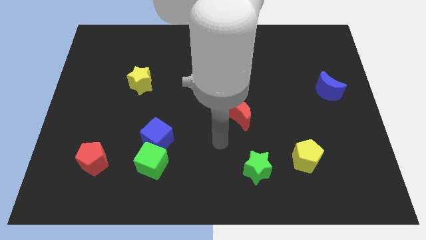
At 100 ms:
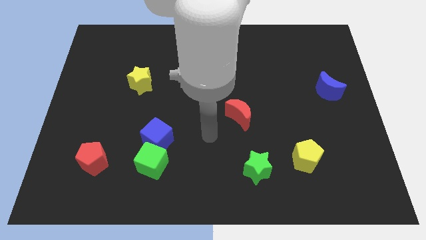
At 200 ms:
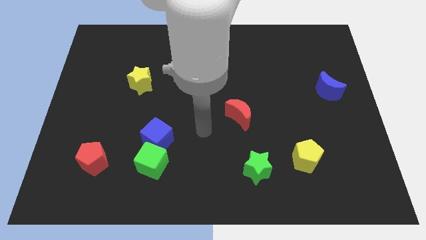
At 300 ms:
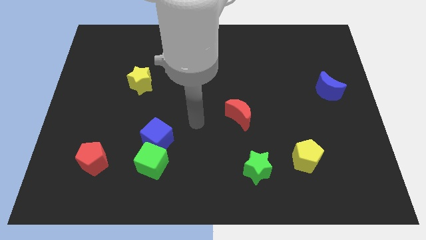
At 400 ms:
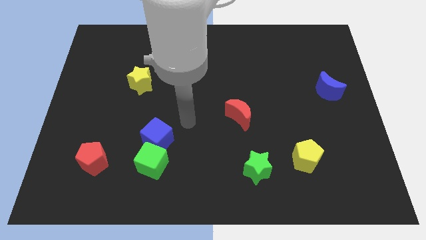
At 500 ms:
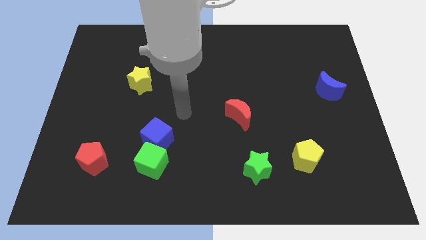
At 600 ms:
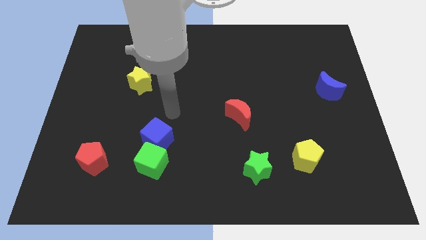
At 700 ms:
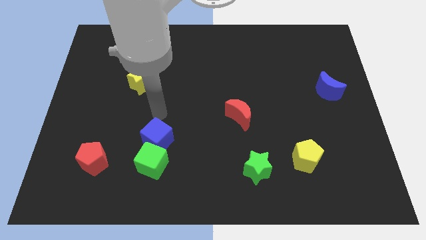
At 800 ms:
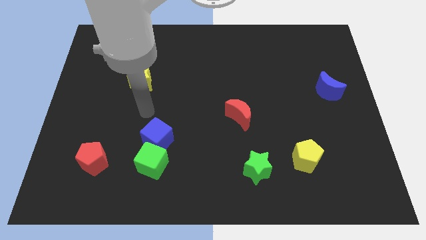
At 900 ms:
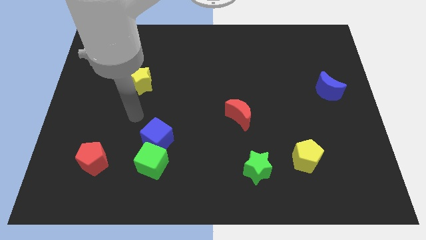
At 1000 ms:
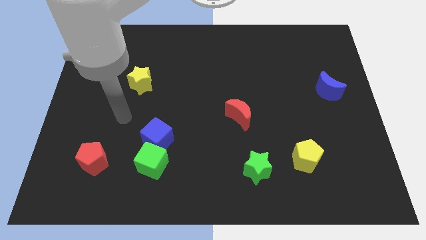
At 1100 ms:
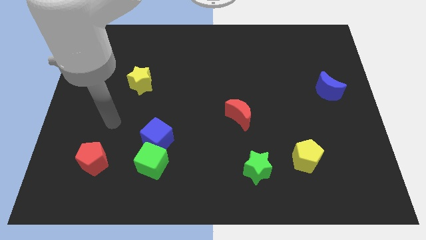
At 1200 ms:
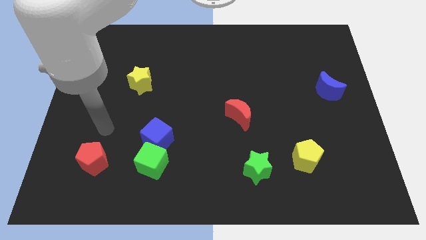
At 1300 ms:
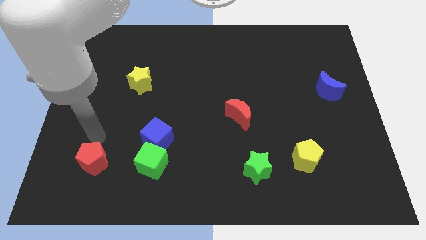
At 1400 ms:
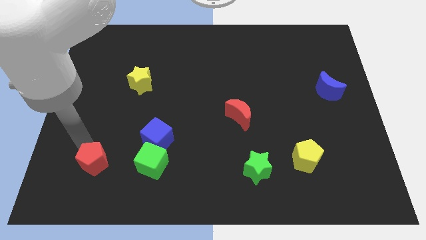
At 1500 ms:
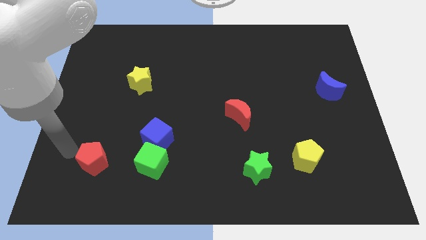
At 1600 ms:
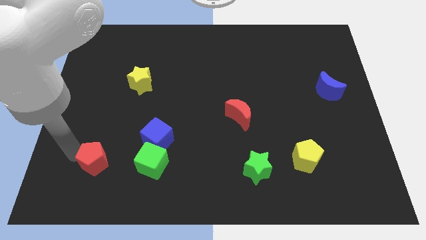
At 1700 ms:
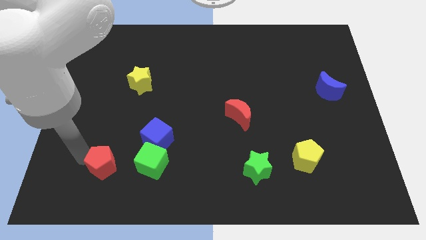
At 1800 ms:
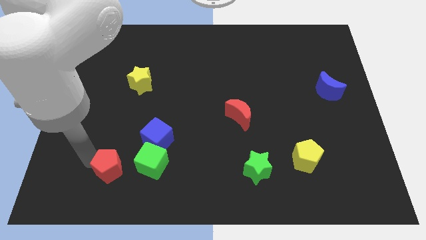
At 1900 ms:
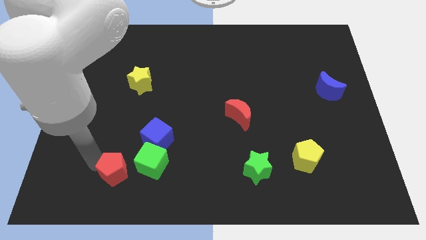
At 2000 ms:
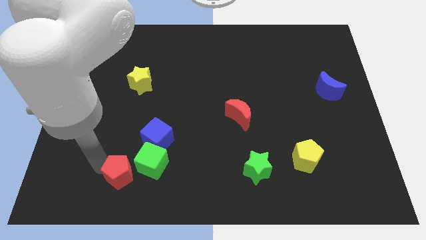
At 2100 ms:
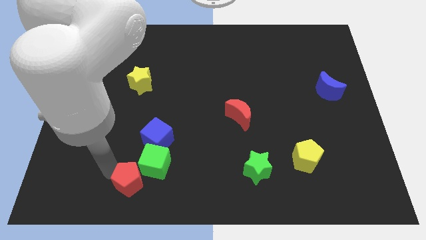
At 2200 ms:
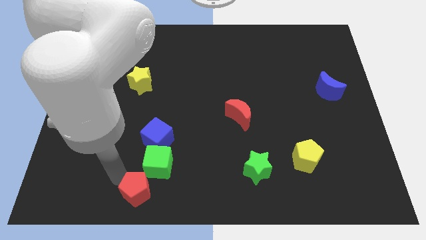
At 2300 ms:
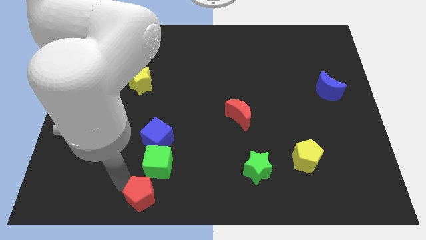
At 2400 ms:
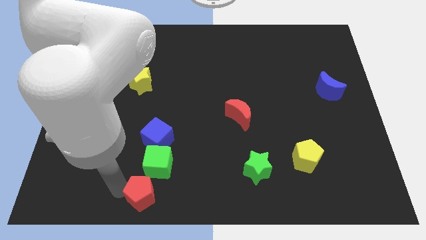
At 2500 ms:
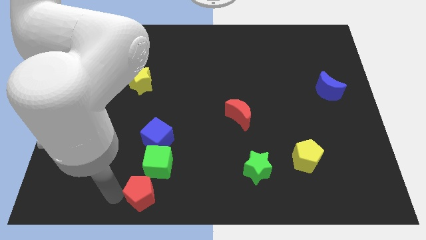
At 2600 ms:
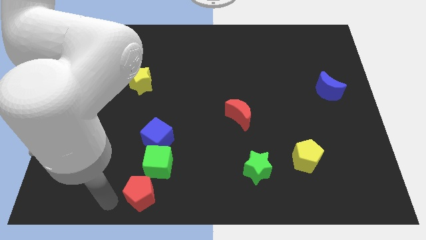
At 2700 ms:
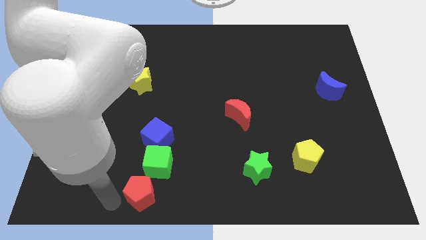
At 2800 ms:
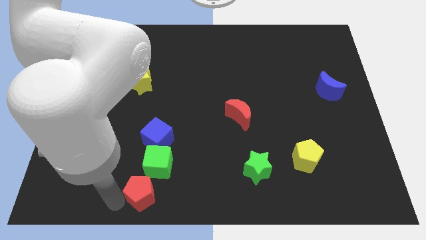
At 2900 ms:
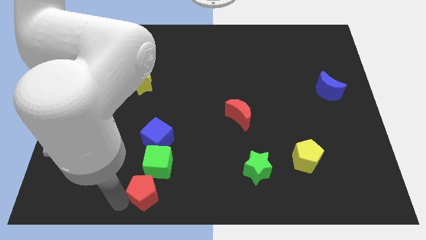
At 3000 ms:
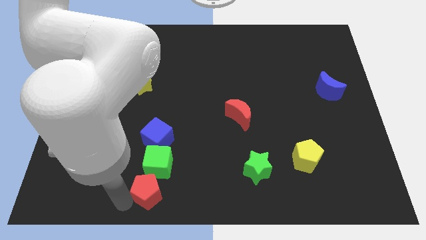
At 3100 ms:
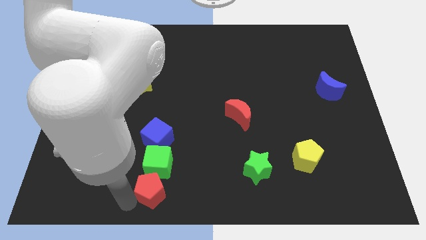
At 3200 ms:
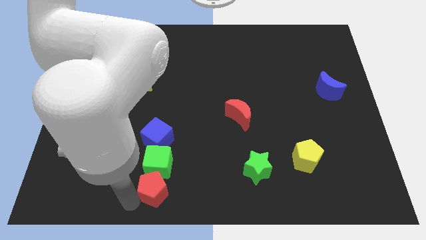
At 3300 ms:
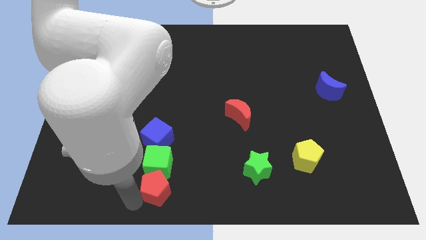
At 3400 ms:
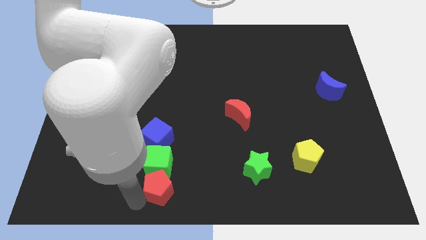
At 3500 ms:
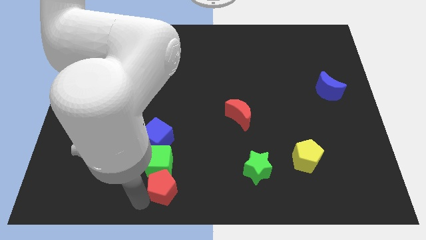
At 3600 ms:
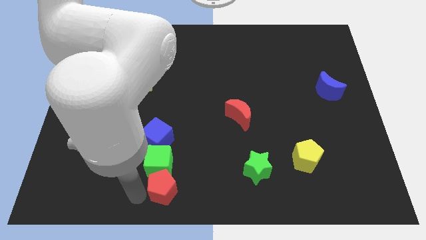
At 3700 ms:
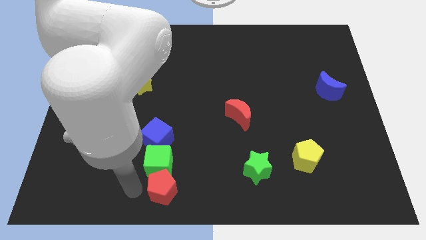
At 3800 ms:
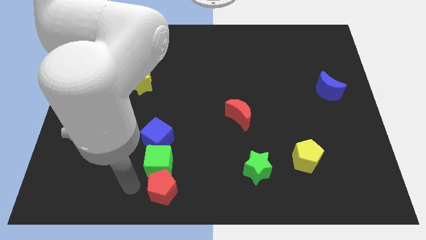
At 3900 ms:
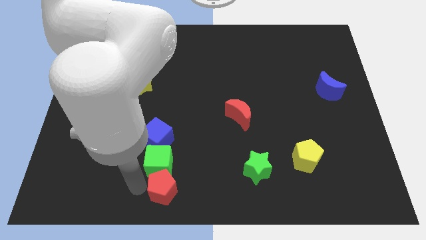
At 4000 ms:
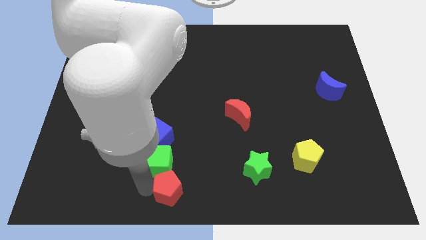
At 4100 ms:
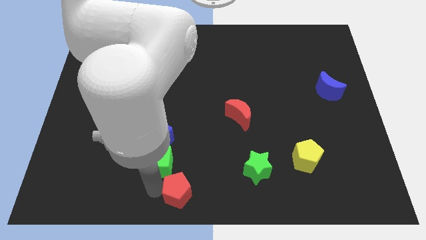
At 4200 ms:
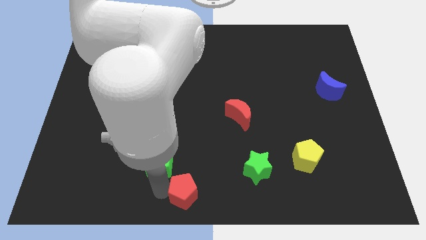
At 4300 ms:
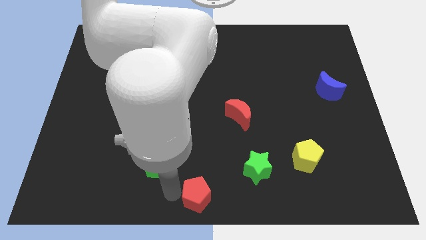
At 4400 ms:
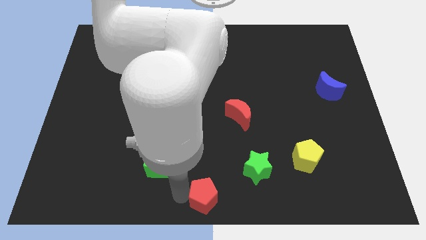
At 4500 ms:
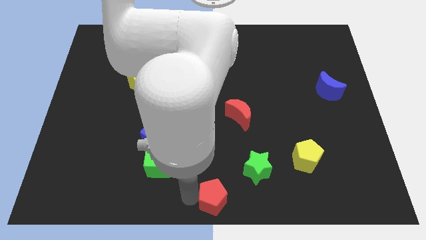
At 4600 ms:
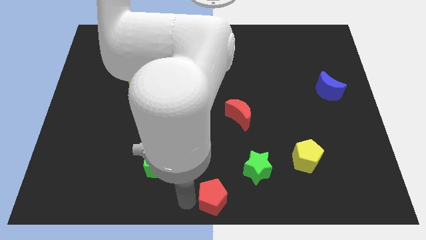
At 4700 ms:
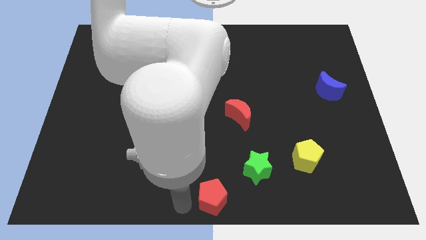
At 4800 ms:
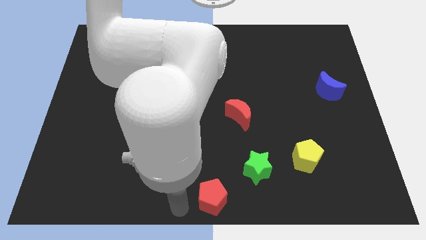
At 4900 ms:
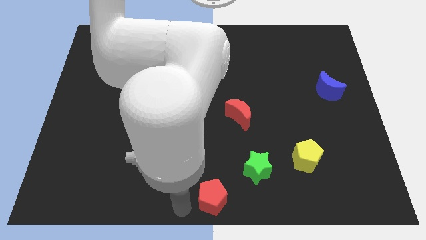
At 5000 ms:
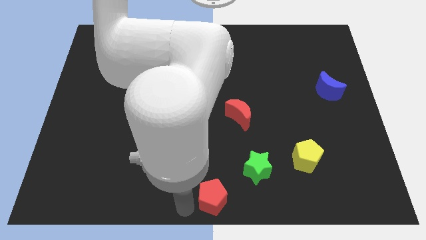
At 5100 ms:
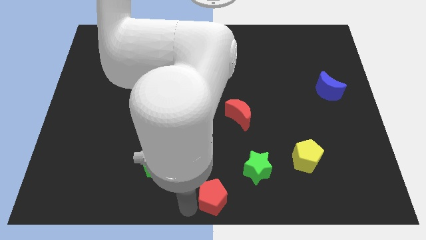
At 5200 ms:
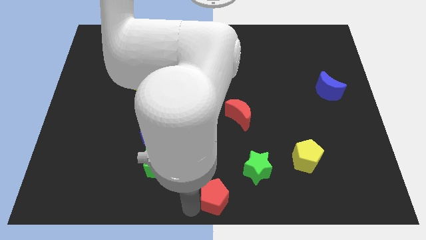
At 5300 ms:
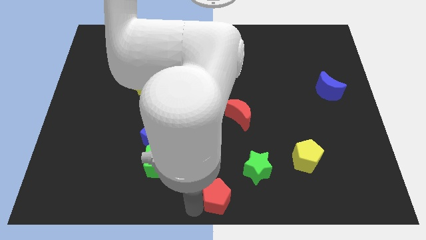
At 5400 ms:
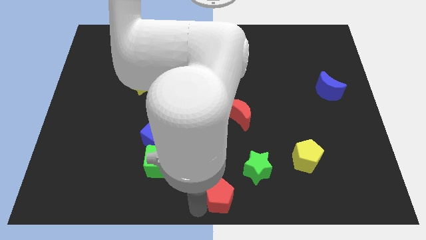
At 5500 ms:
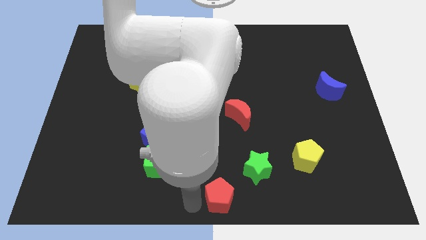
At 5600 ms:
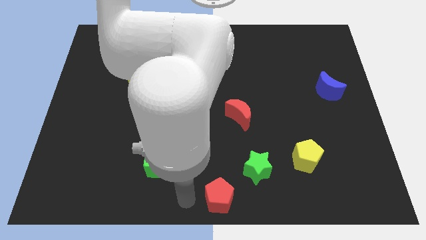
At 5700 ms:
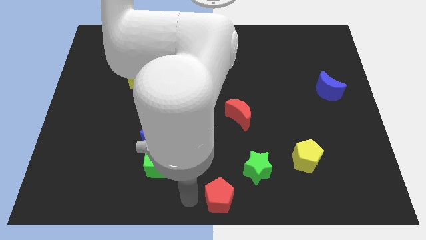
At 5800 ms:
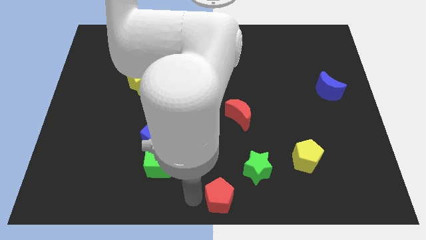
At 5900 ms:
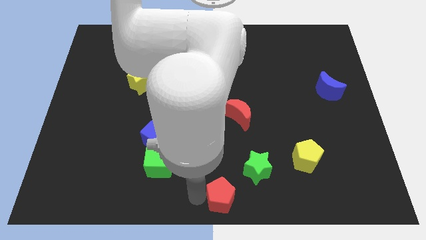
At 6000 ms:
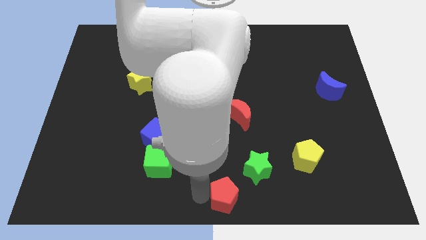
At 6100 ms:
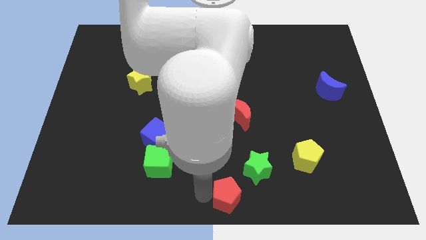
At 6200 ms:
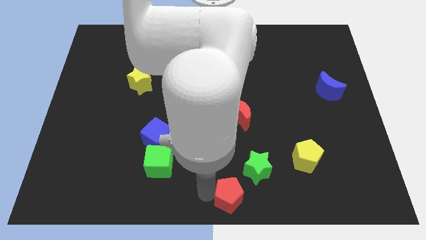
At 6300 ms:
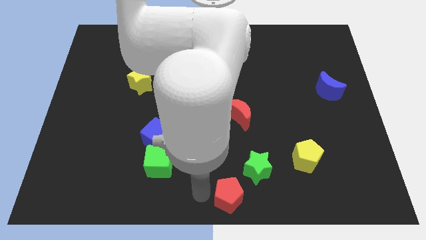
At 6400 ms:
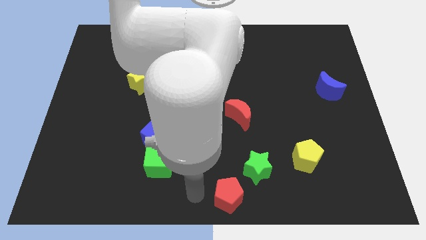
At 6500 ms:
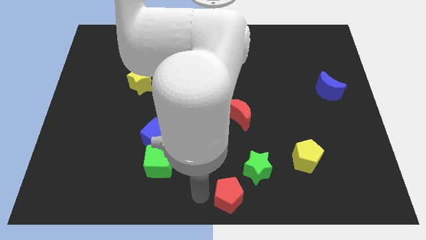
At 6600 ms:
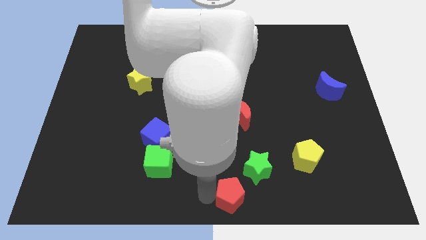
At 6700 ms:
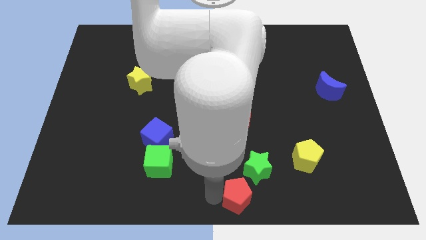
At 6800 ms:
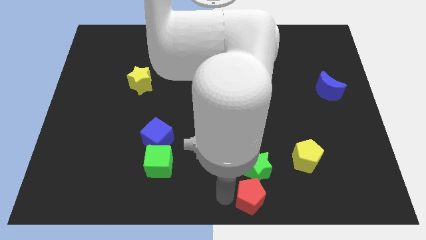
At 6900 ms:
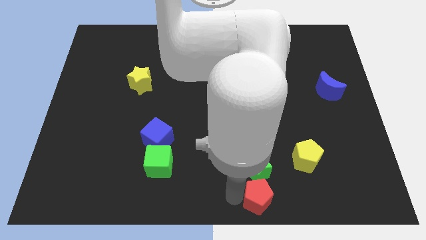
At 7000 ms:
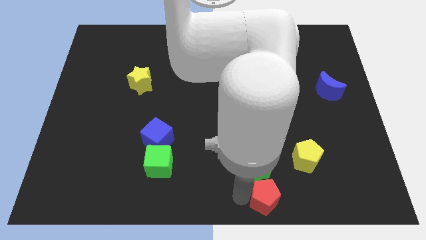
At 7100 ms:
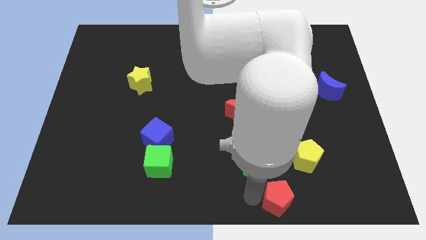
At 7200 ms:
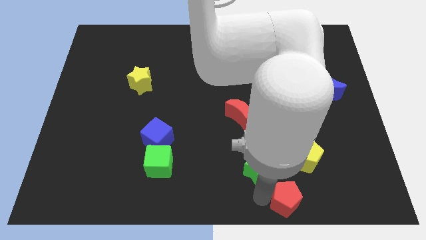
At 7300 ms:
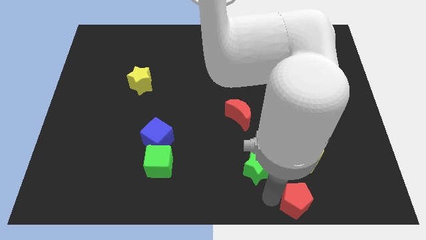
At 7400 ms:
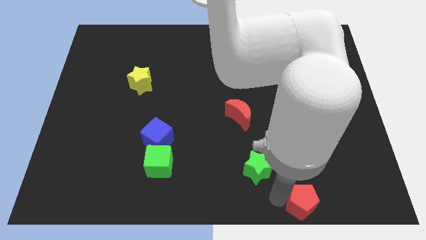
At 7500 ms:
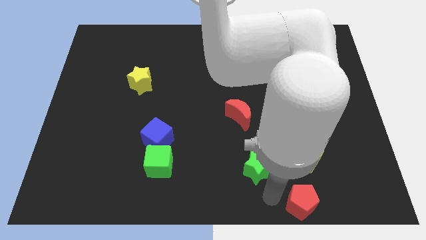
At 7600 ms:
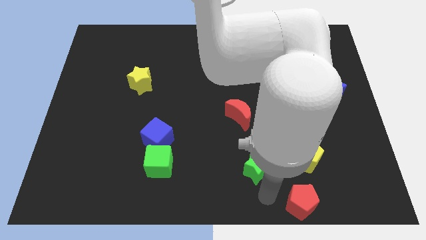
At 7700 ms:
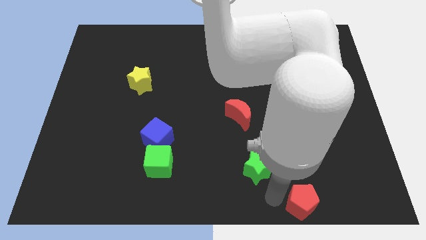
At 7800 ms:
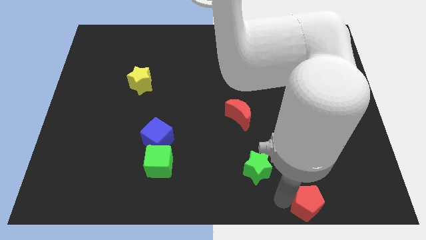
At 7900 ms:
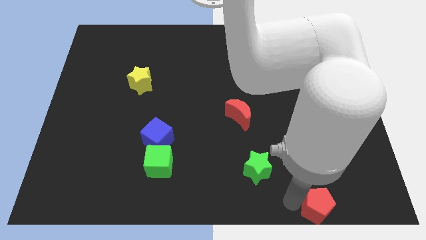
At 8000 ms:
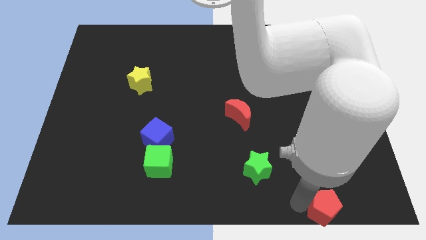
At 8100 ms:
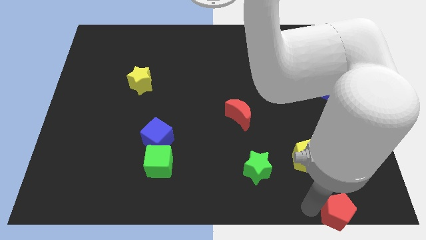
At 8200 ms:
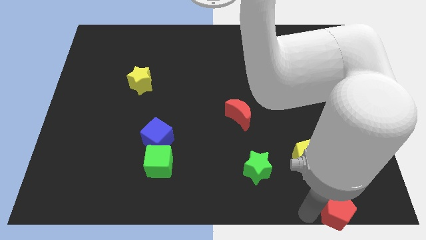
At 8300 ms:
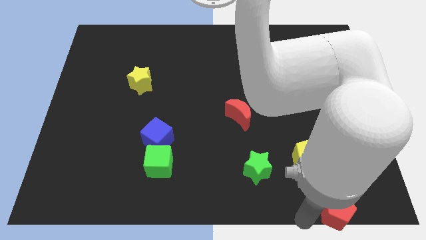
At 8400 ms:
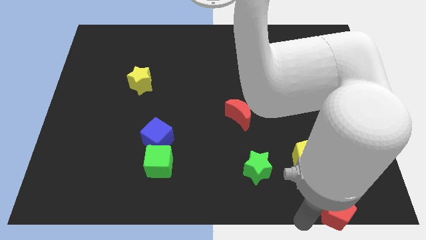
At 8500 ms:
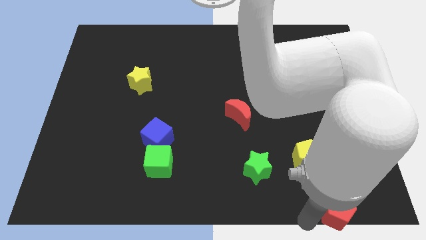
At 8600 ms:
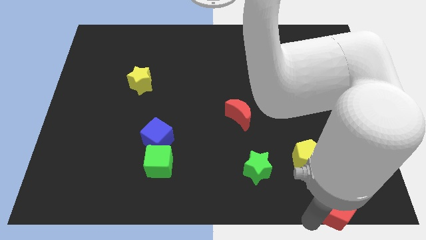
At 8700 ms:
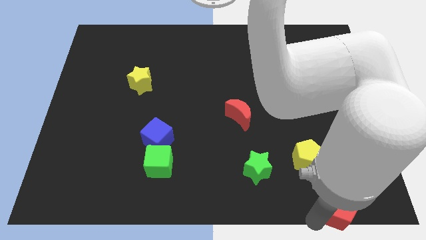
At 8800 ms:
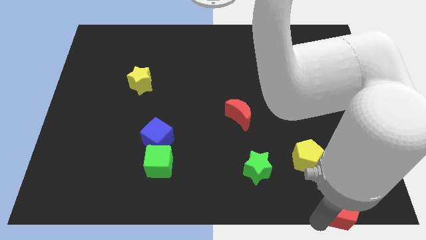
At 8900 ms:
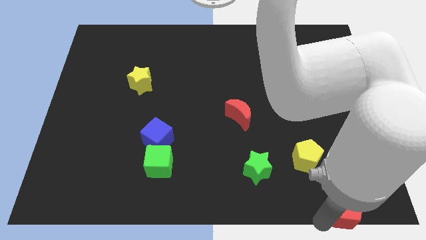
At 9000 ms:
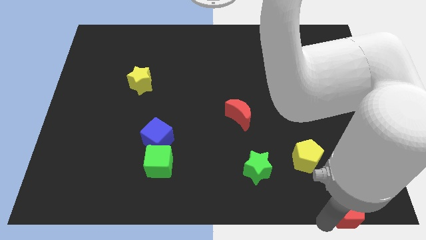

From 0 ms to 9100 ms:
put the red pentagon to the bottom right corner
